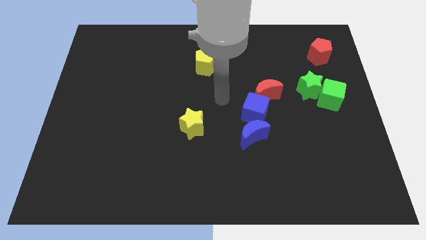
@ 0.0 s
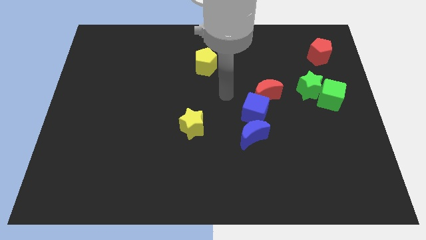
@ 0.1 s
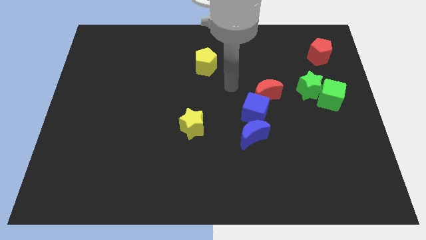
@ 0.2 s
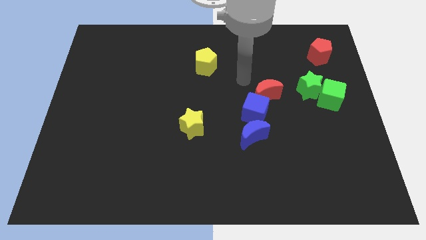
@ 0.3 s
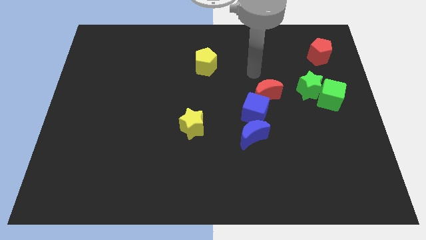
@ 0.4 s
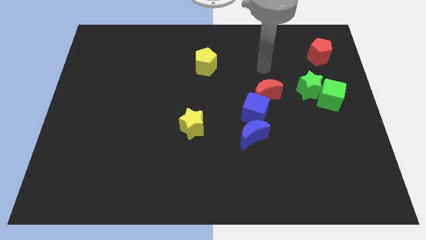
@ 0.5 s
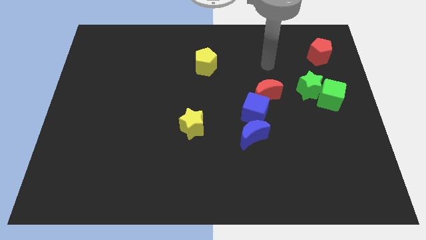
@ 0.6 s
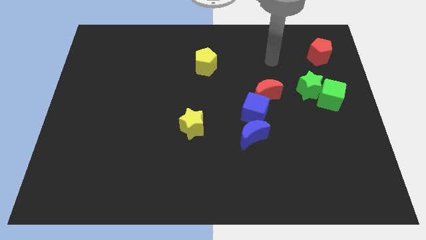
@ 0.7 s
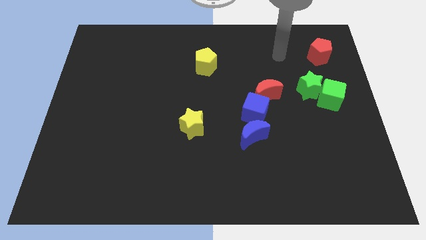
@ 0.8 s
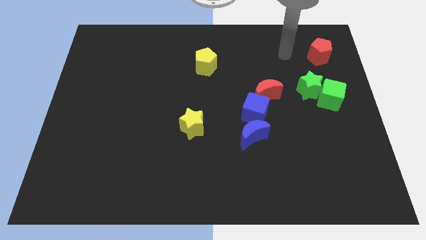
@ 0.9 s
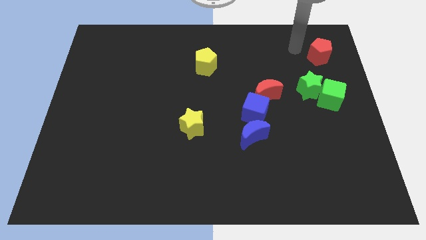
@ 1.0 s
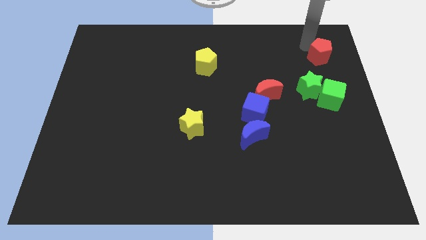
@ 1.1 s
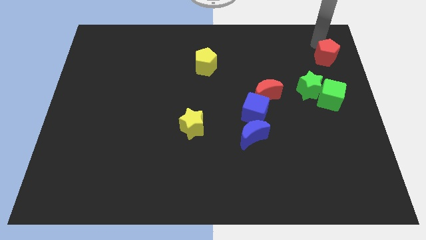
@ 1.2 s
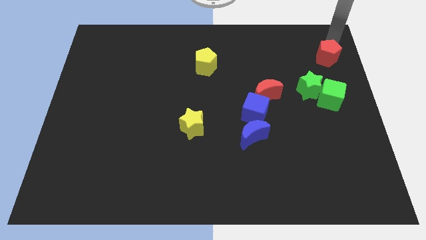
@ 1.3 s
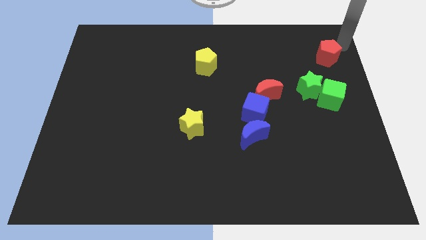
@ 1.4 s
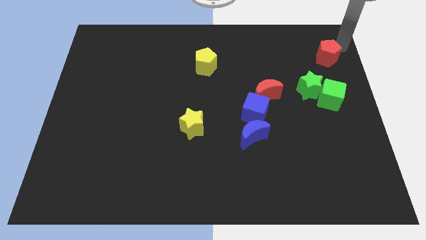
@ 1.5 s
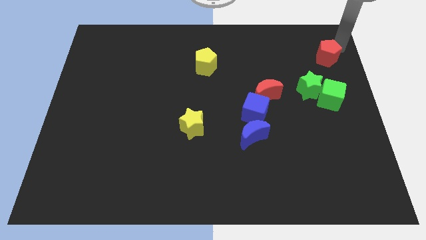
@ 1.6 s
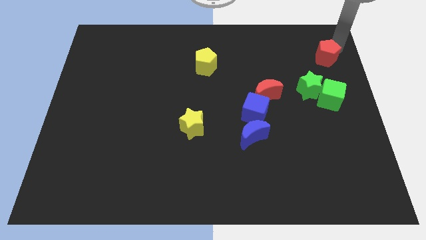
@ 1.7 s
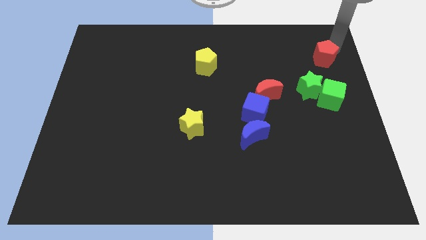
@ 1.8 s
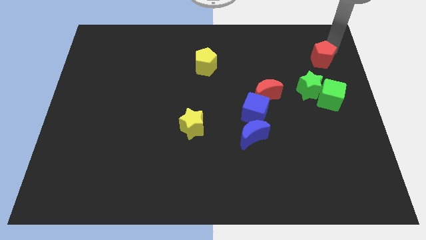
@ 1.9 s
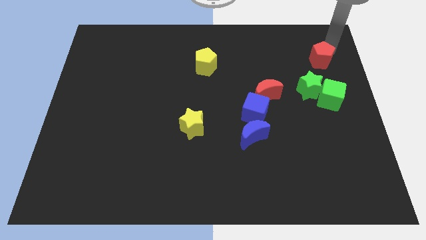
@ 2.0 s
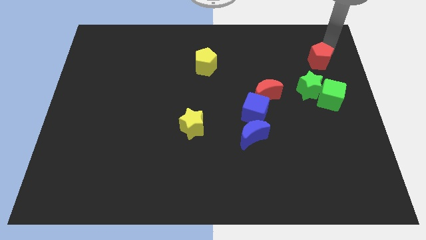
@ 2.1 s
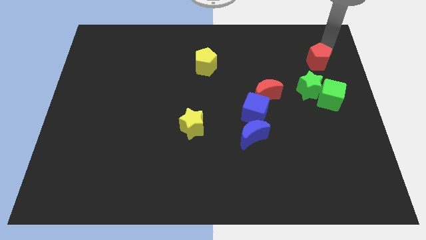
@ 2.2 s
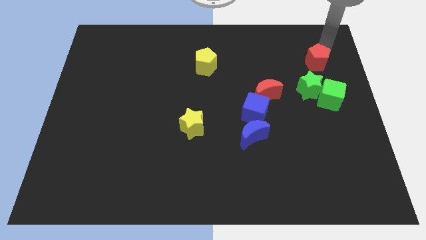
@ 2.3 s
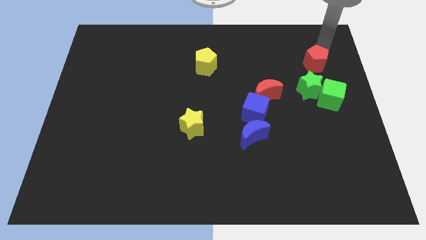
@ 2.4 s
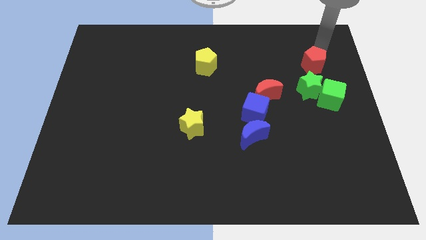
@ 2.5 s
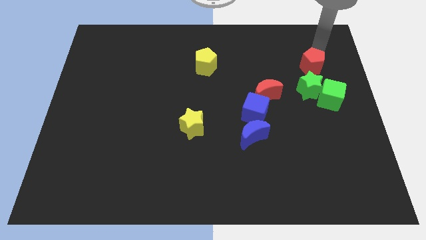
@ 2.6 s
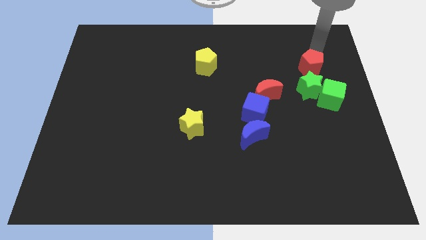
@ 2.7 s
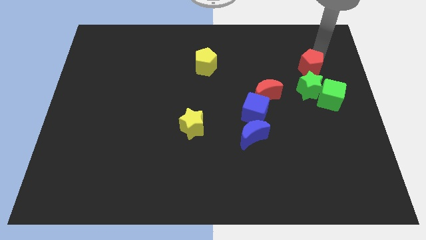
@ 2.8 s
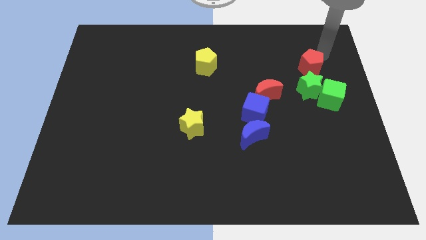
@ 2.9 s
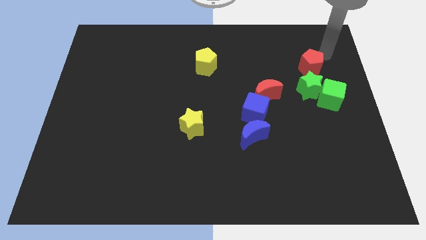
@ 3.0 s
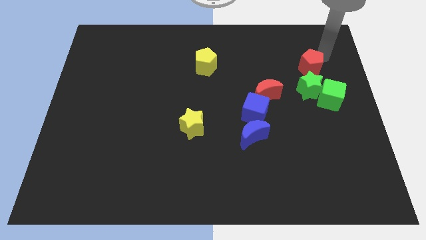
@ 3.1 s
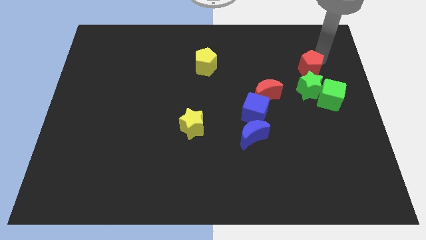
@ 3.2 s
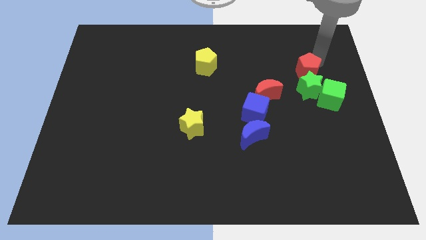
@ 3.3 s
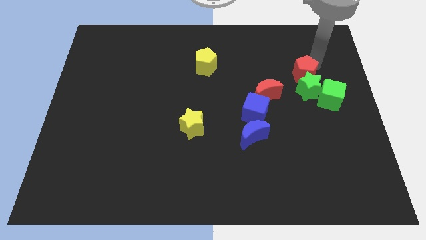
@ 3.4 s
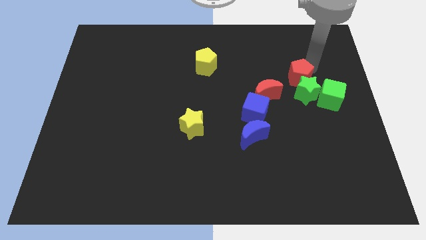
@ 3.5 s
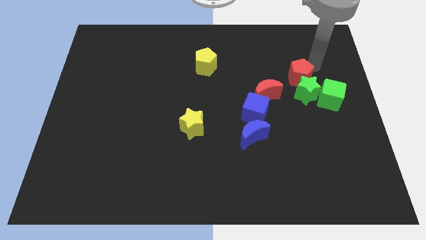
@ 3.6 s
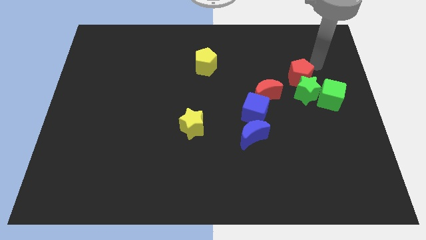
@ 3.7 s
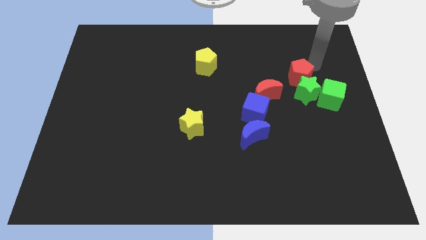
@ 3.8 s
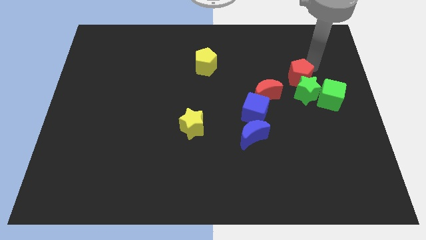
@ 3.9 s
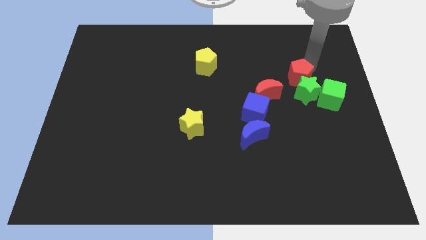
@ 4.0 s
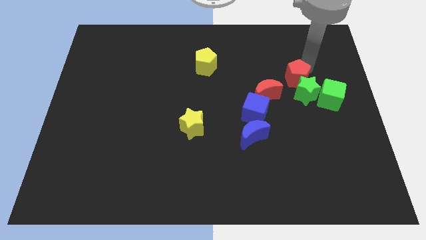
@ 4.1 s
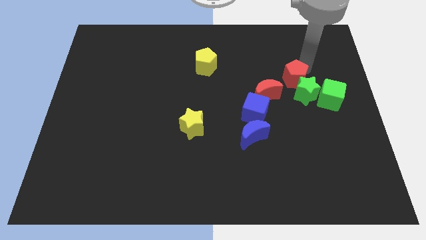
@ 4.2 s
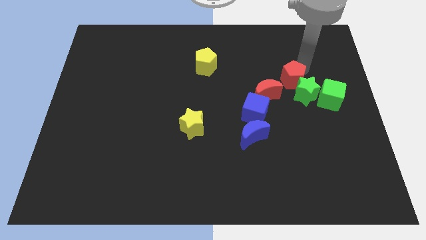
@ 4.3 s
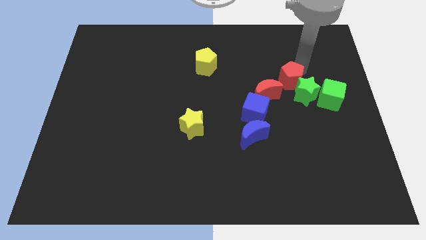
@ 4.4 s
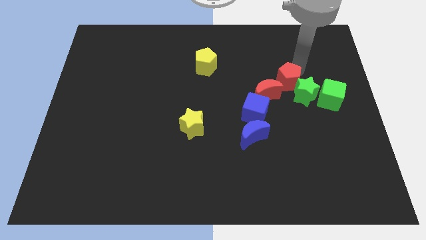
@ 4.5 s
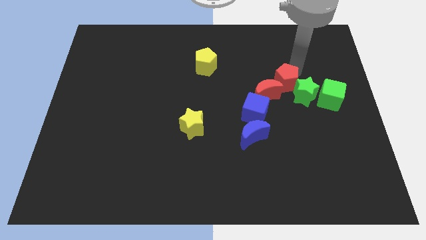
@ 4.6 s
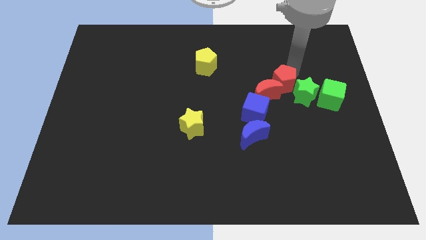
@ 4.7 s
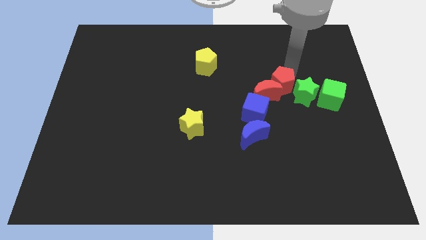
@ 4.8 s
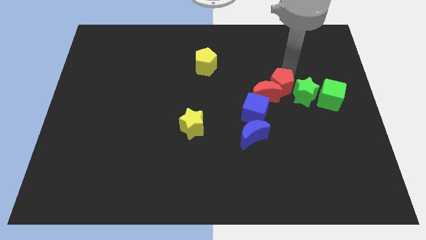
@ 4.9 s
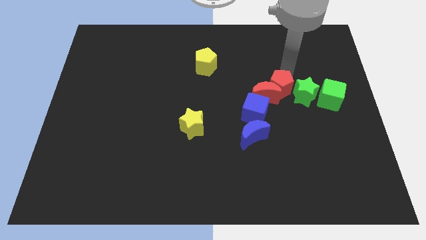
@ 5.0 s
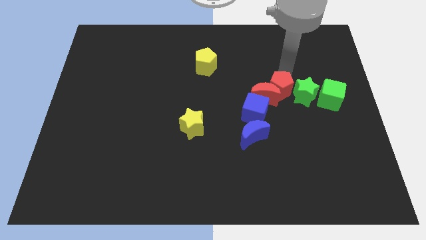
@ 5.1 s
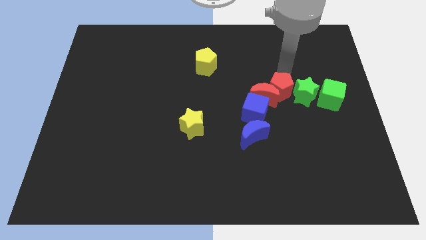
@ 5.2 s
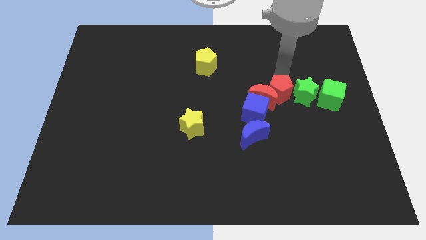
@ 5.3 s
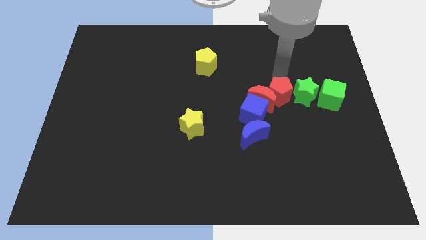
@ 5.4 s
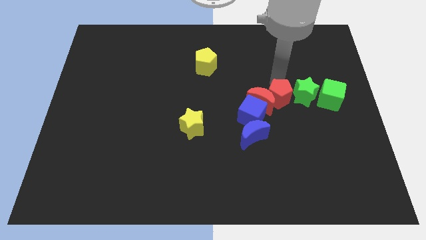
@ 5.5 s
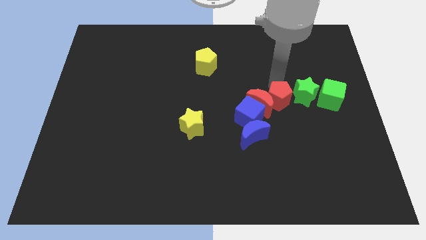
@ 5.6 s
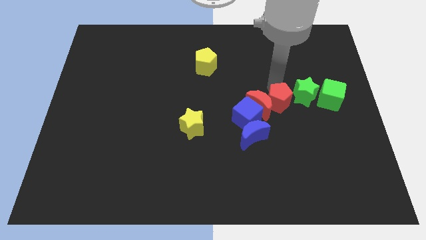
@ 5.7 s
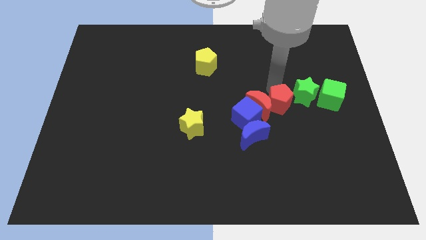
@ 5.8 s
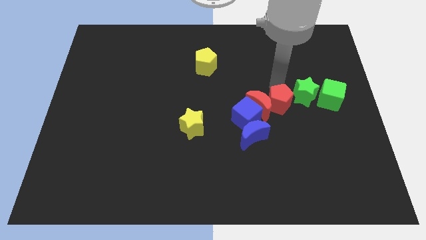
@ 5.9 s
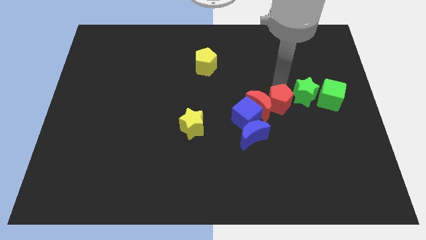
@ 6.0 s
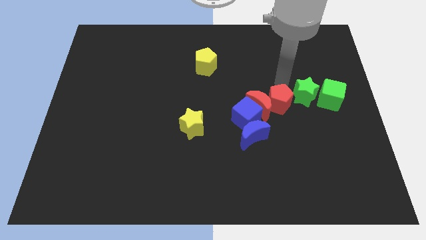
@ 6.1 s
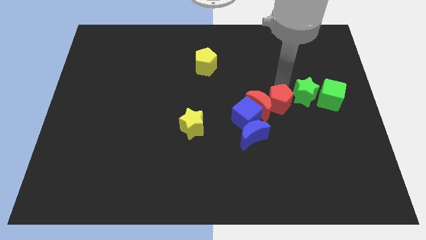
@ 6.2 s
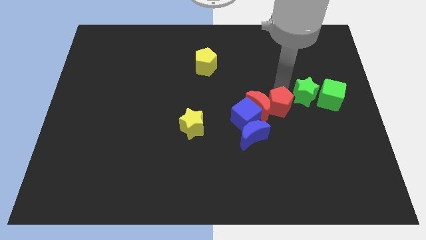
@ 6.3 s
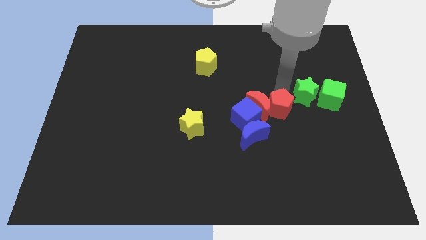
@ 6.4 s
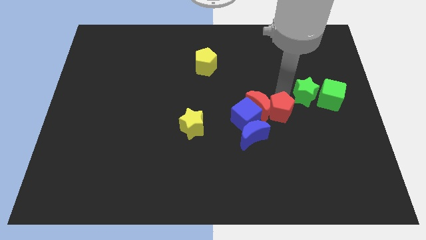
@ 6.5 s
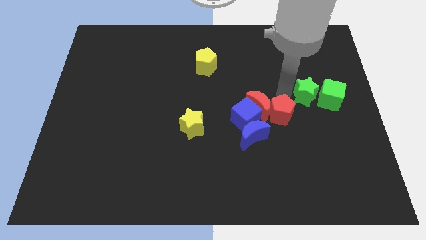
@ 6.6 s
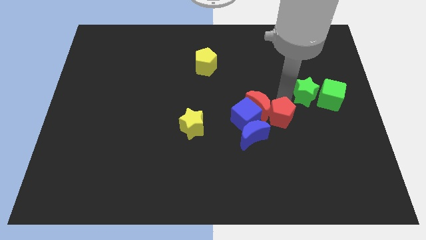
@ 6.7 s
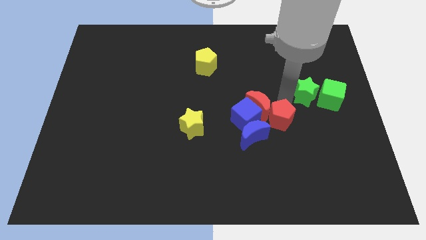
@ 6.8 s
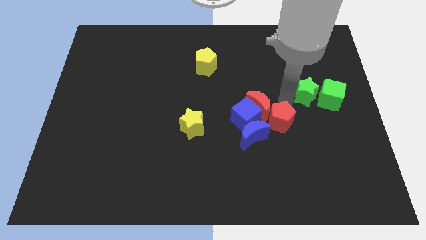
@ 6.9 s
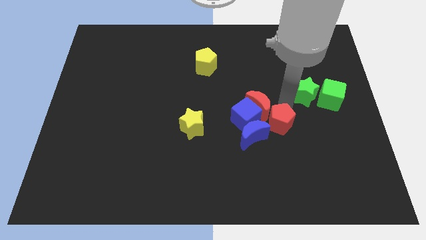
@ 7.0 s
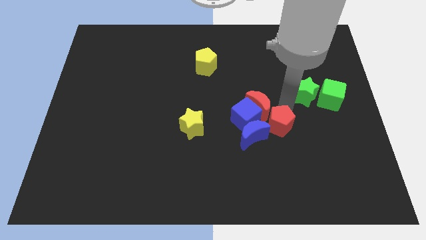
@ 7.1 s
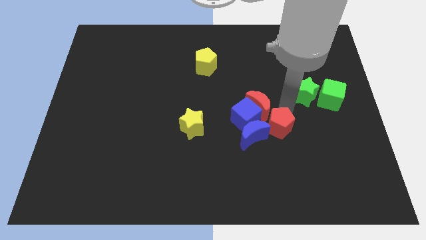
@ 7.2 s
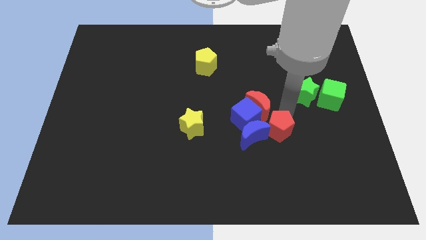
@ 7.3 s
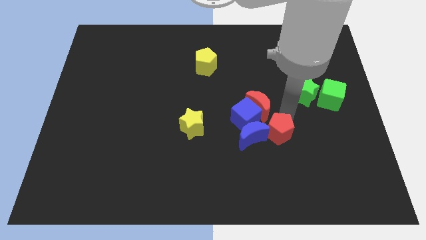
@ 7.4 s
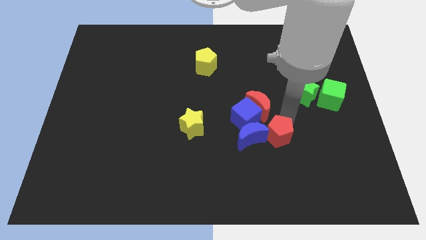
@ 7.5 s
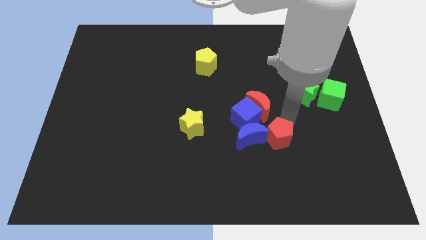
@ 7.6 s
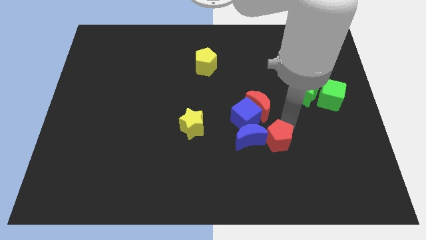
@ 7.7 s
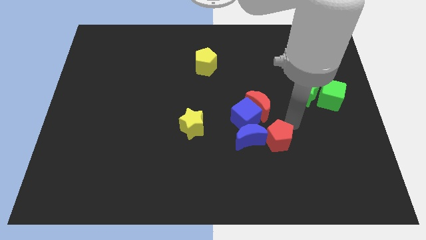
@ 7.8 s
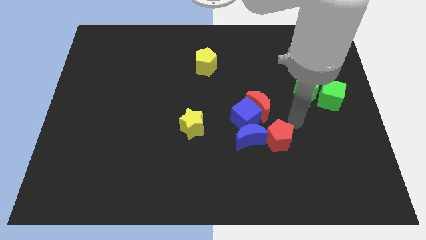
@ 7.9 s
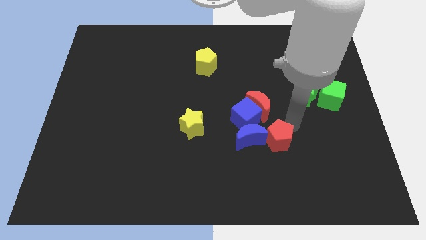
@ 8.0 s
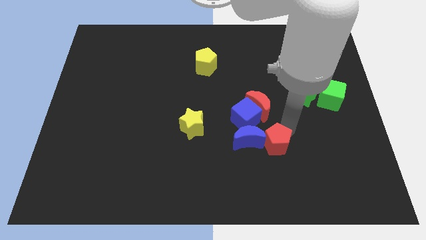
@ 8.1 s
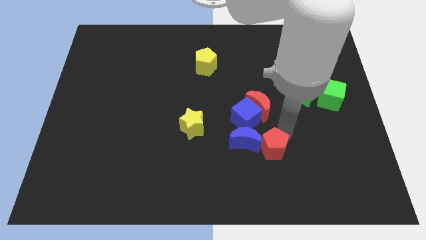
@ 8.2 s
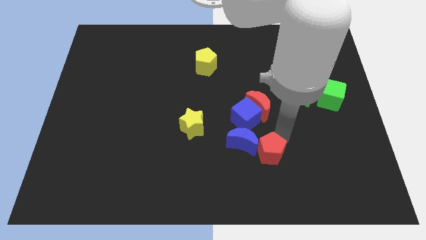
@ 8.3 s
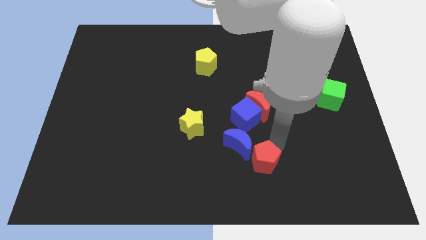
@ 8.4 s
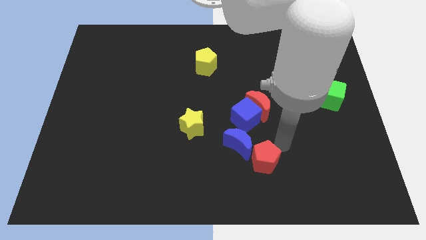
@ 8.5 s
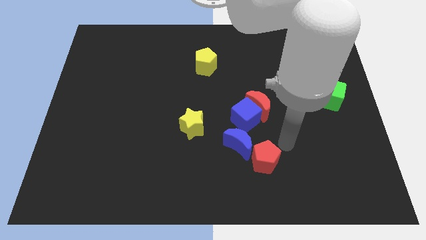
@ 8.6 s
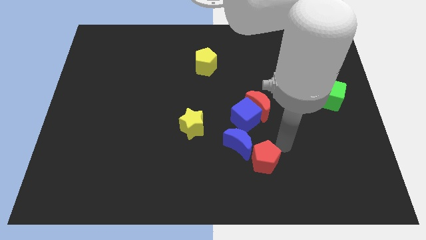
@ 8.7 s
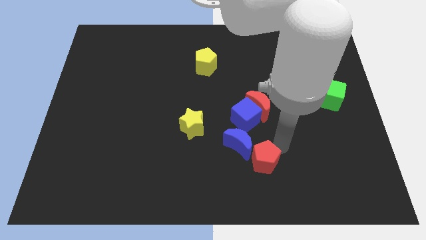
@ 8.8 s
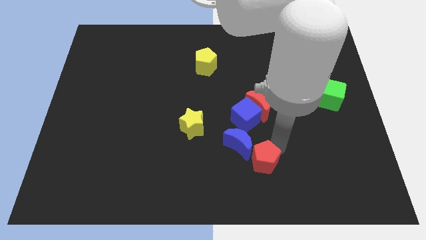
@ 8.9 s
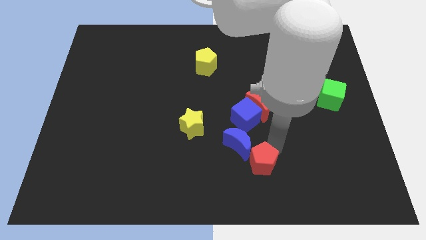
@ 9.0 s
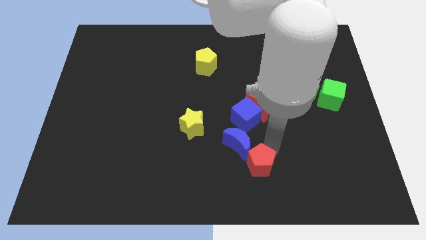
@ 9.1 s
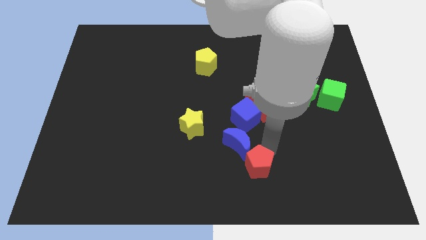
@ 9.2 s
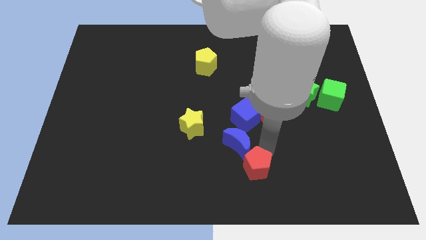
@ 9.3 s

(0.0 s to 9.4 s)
put the red pentagon to the bottom
